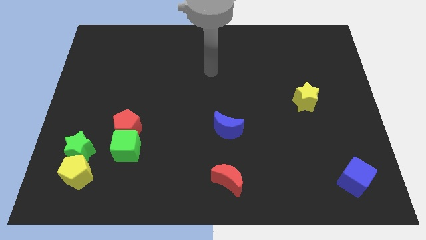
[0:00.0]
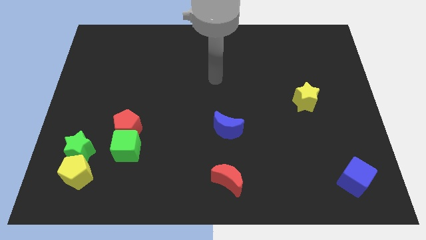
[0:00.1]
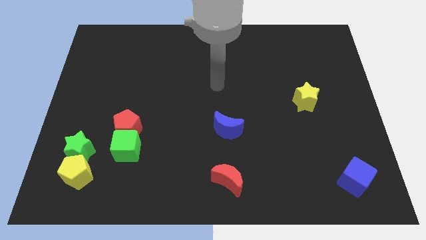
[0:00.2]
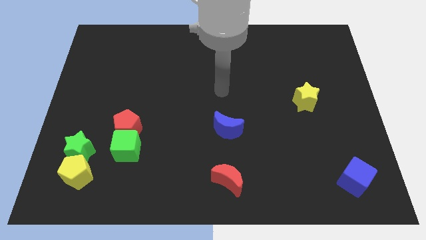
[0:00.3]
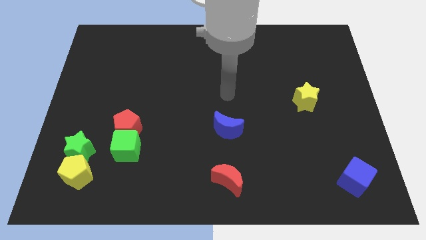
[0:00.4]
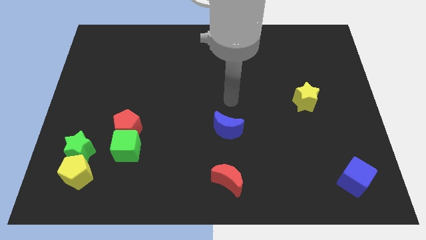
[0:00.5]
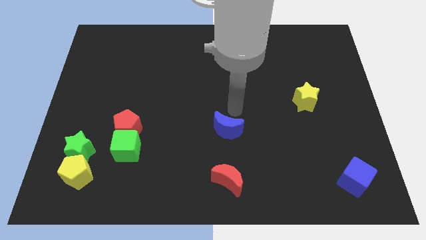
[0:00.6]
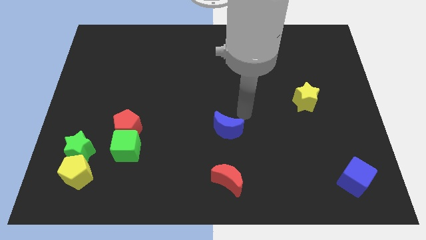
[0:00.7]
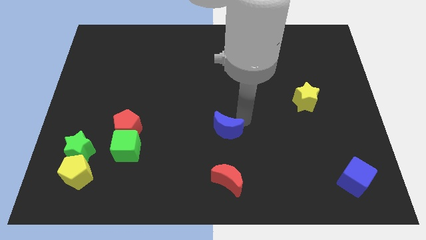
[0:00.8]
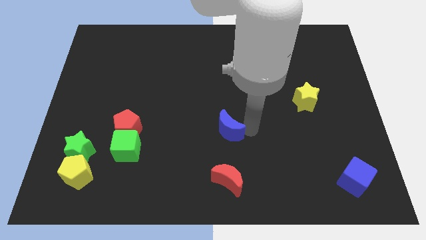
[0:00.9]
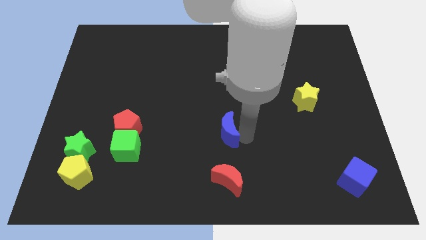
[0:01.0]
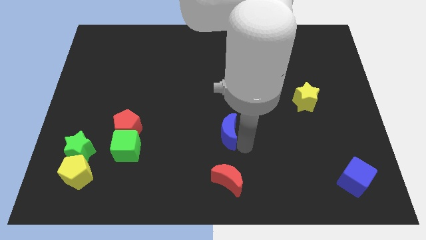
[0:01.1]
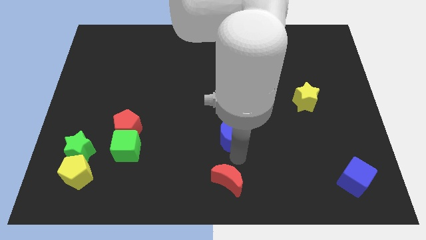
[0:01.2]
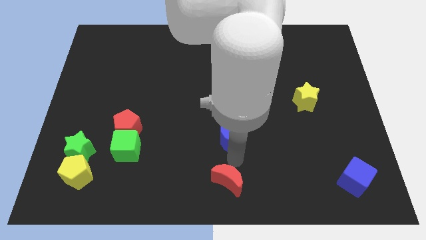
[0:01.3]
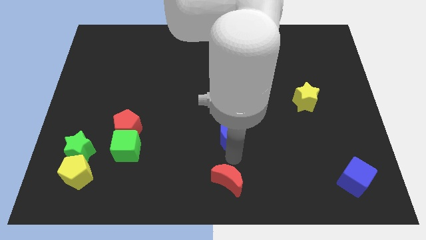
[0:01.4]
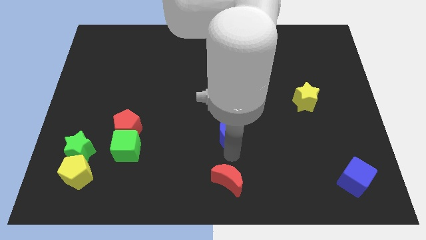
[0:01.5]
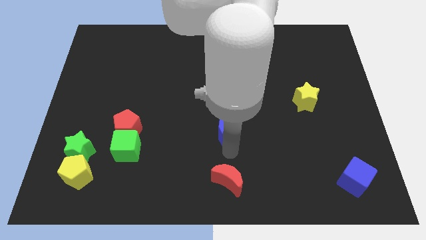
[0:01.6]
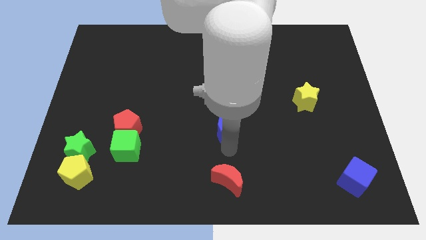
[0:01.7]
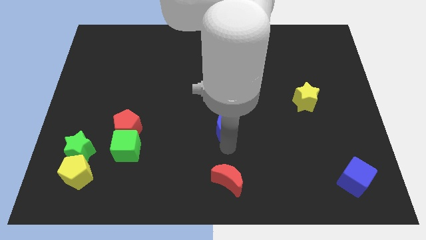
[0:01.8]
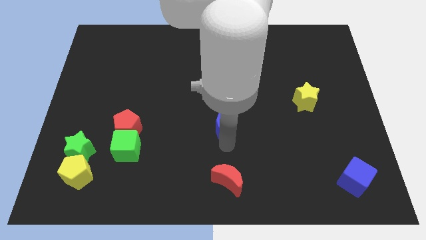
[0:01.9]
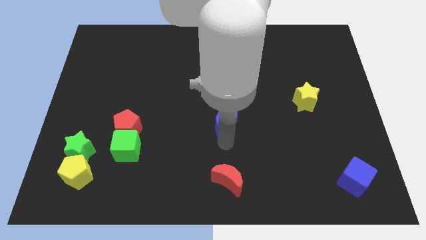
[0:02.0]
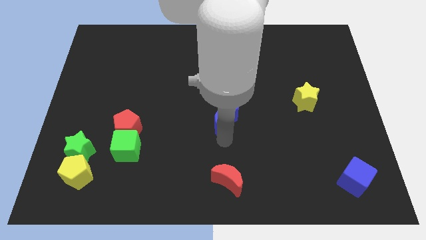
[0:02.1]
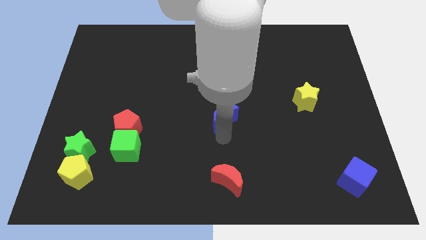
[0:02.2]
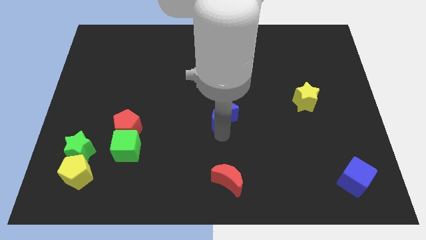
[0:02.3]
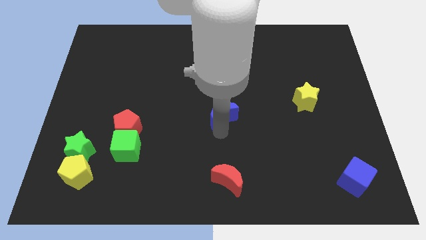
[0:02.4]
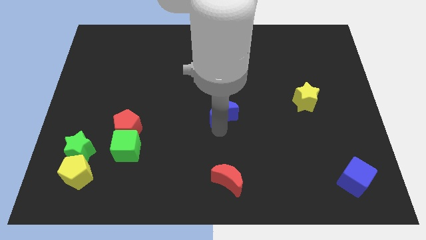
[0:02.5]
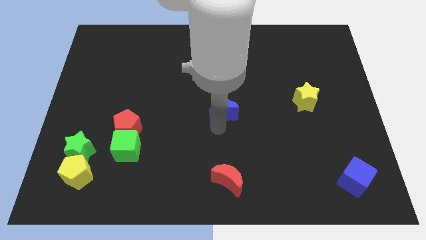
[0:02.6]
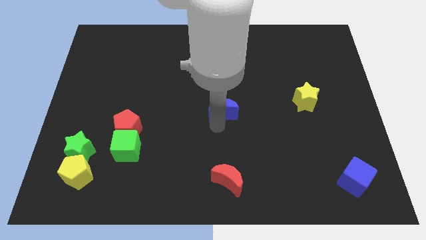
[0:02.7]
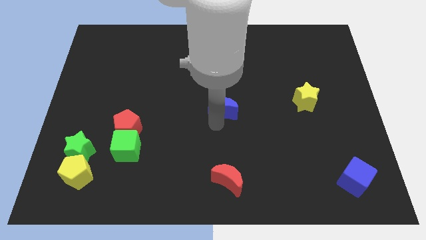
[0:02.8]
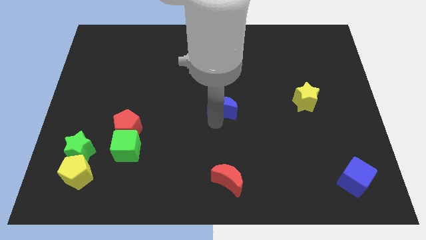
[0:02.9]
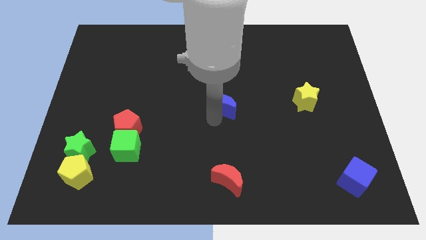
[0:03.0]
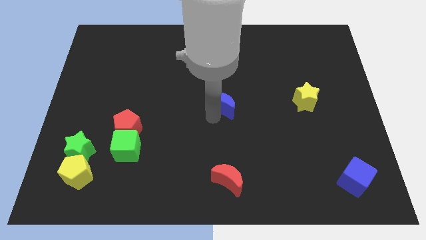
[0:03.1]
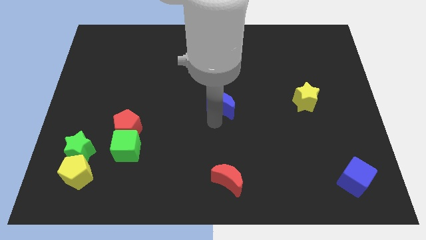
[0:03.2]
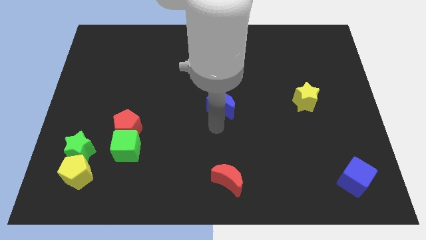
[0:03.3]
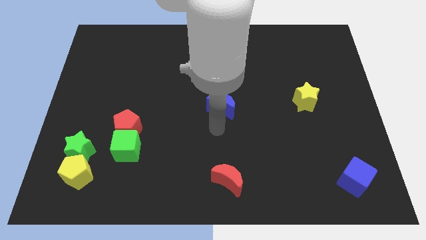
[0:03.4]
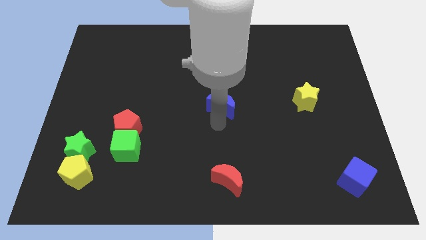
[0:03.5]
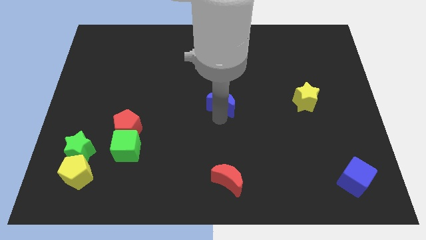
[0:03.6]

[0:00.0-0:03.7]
move the blue moon somewhat up

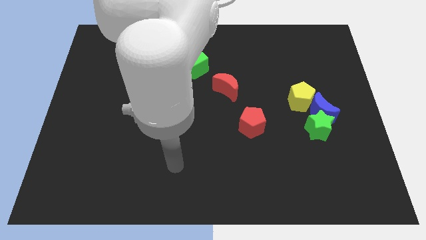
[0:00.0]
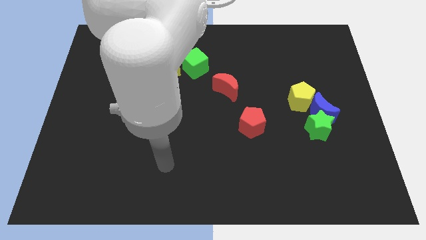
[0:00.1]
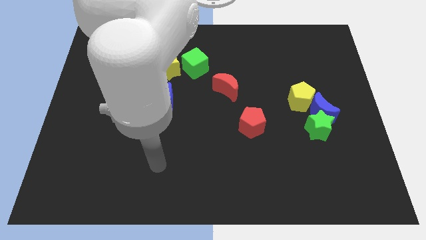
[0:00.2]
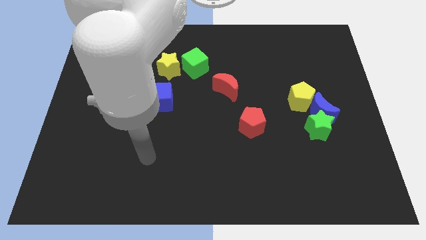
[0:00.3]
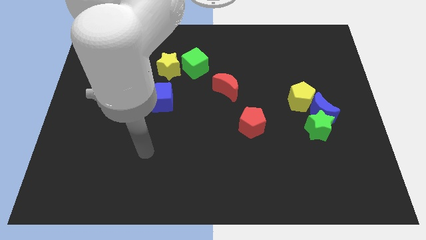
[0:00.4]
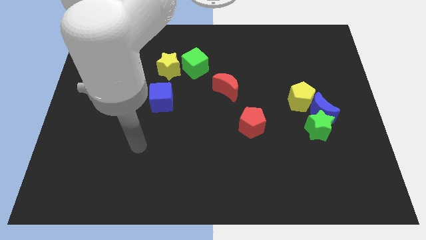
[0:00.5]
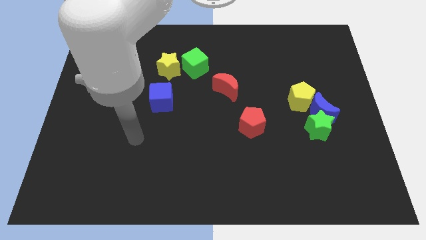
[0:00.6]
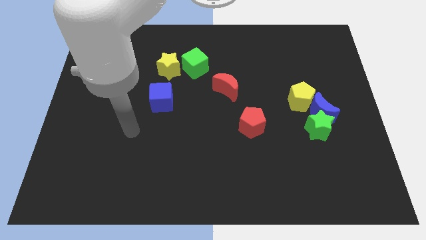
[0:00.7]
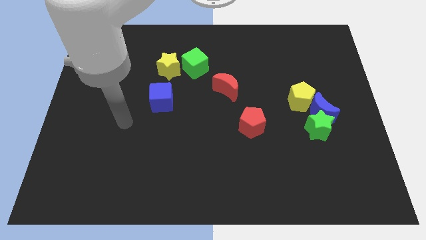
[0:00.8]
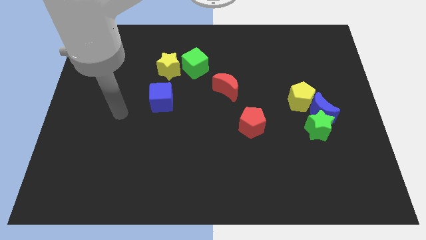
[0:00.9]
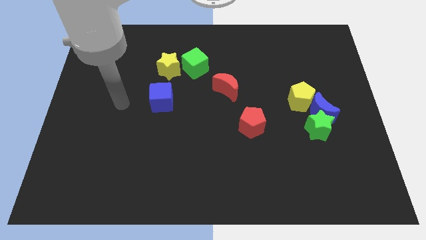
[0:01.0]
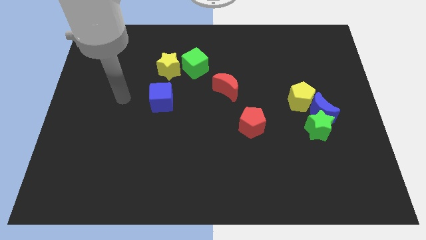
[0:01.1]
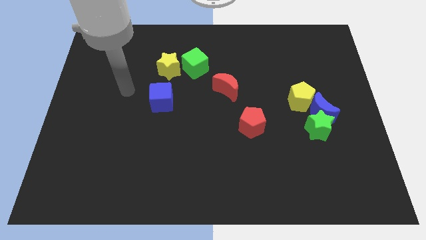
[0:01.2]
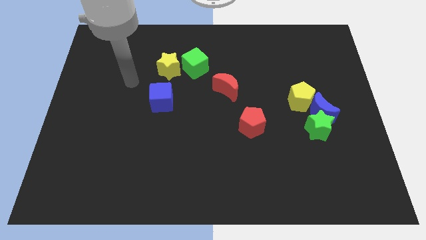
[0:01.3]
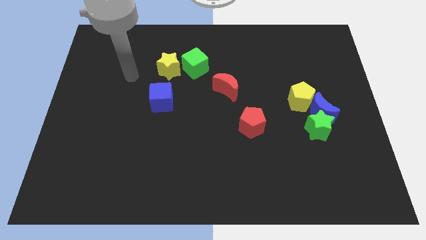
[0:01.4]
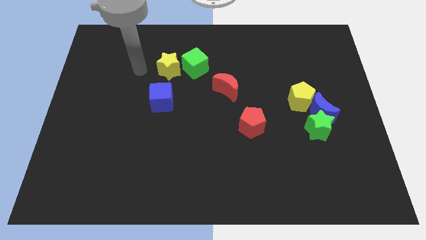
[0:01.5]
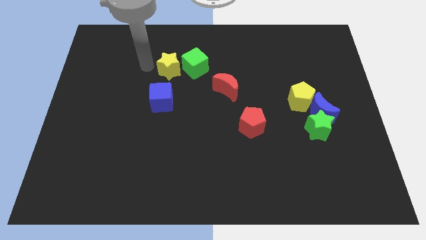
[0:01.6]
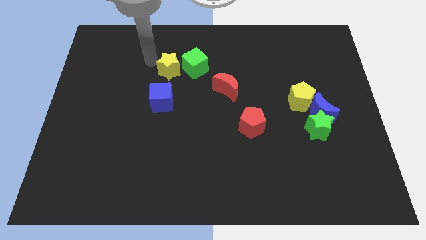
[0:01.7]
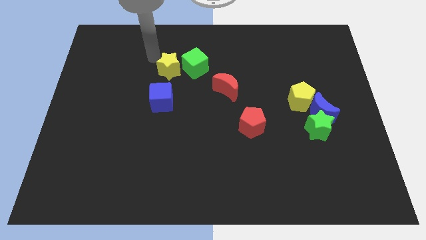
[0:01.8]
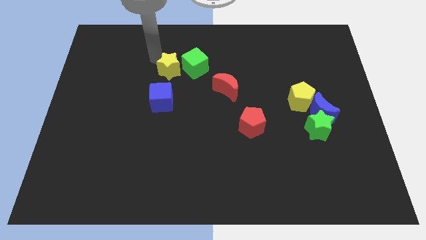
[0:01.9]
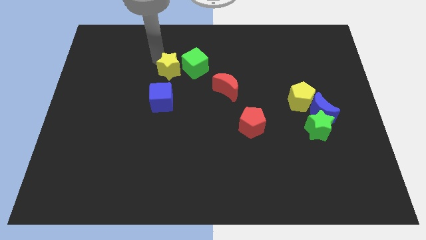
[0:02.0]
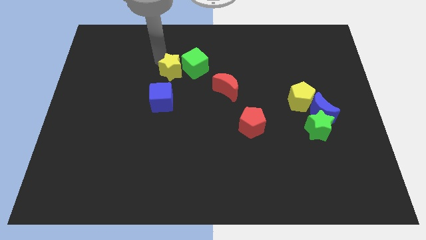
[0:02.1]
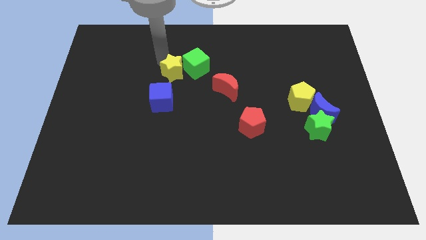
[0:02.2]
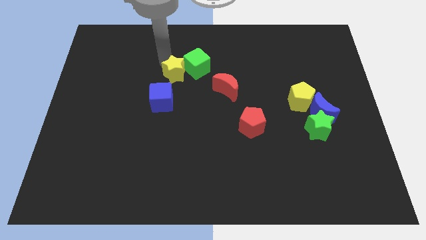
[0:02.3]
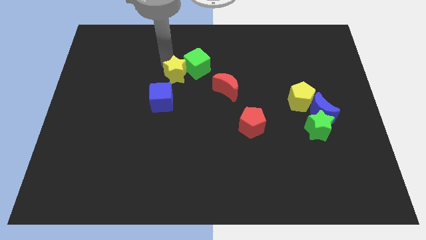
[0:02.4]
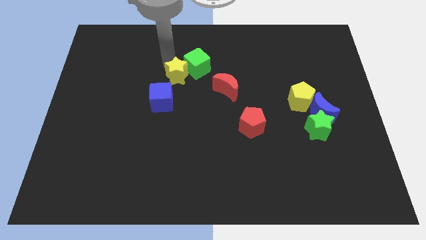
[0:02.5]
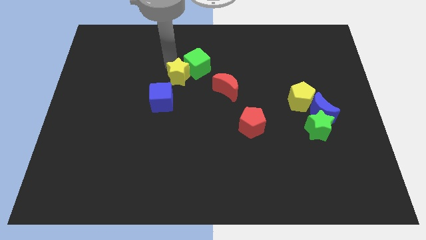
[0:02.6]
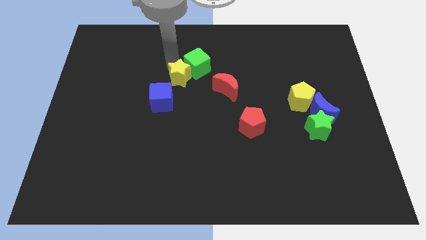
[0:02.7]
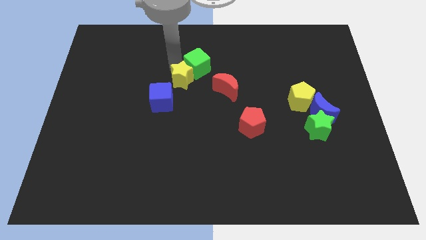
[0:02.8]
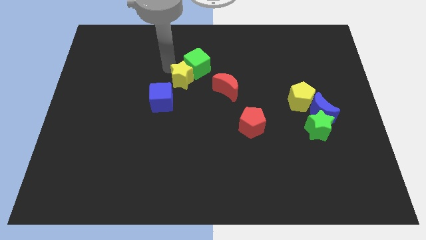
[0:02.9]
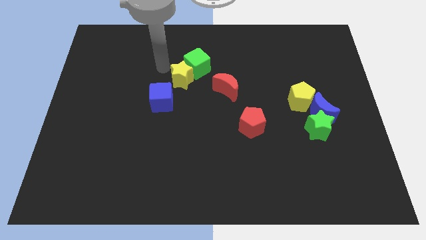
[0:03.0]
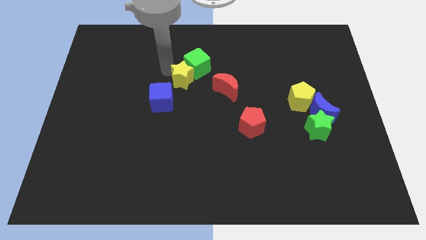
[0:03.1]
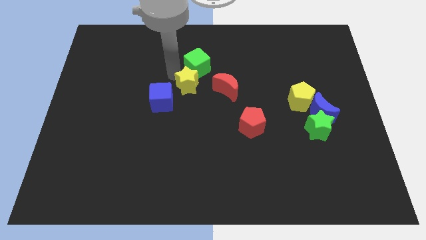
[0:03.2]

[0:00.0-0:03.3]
slightly push the yellow star diagonally downwards and right

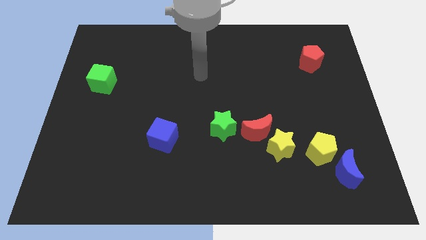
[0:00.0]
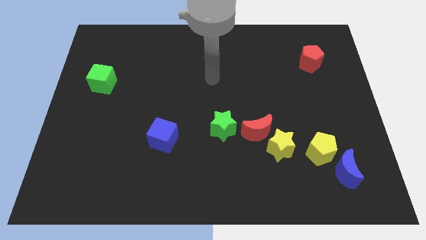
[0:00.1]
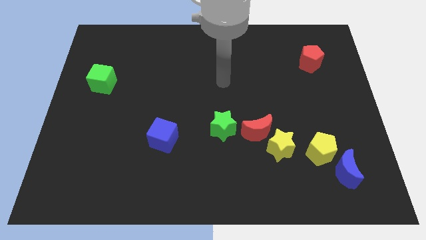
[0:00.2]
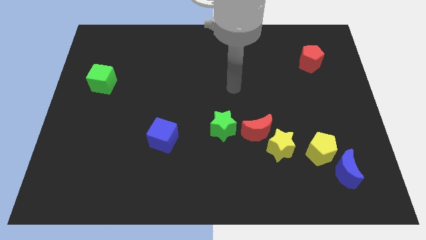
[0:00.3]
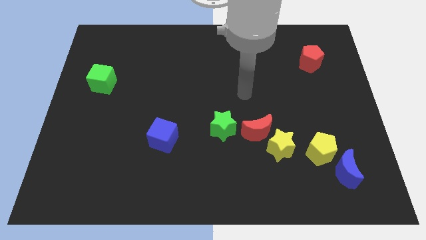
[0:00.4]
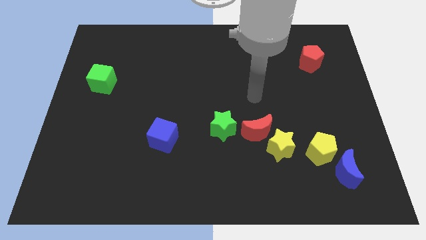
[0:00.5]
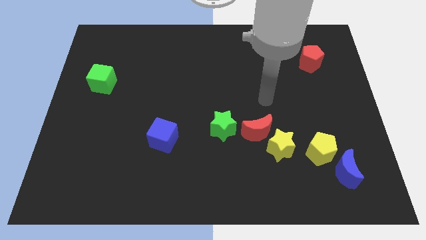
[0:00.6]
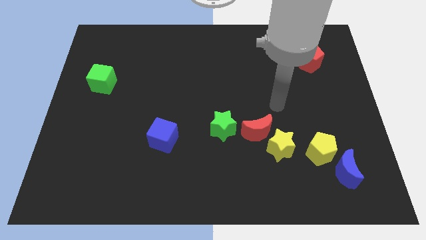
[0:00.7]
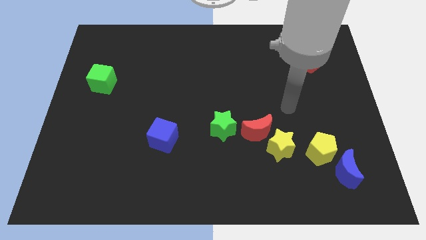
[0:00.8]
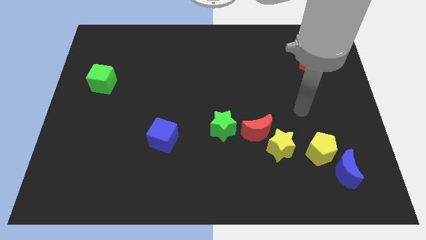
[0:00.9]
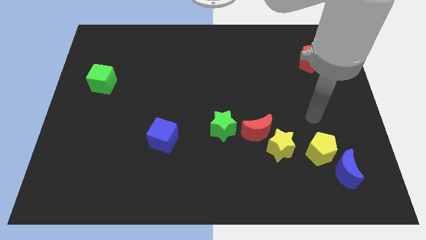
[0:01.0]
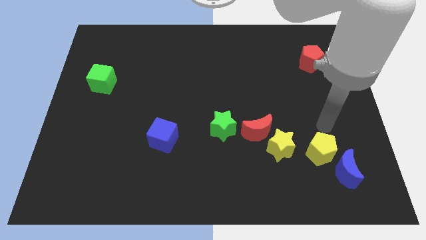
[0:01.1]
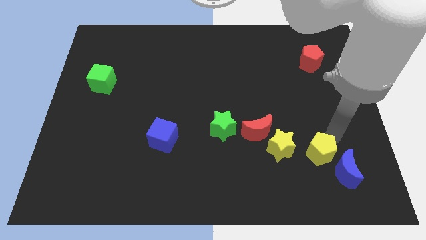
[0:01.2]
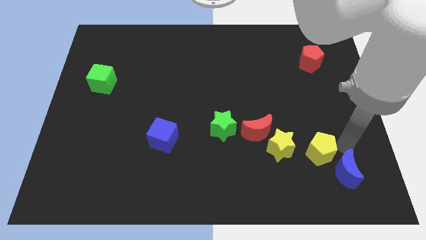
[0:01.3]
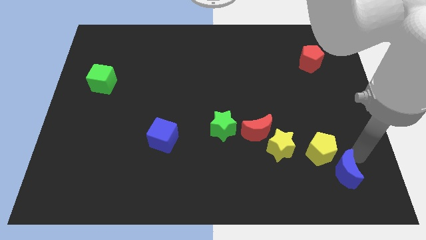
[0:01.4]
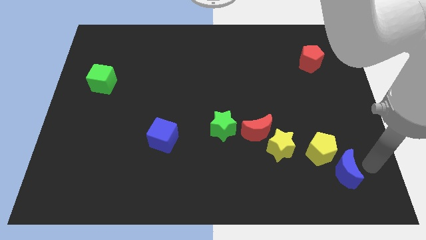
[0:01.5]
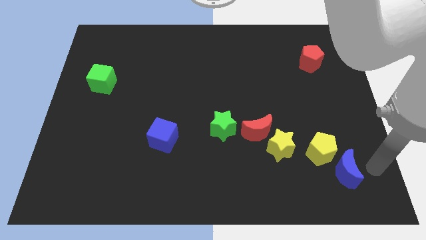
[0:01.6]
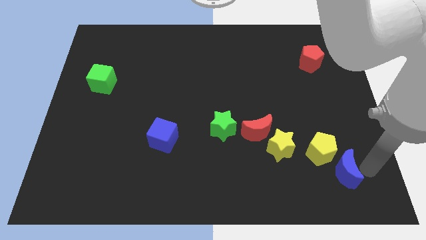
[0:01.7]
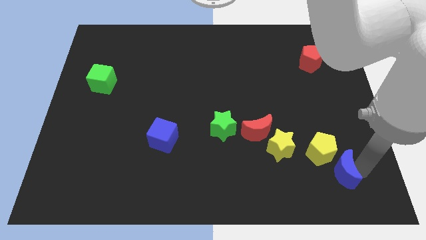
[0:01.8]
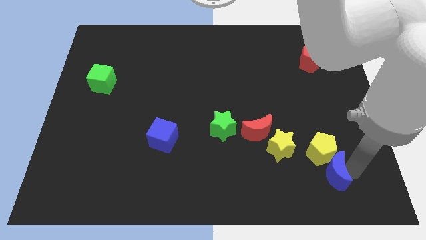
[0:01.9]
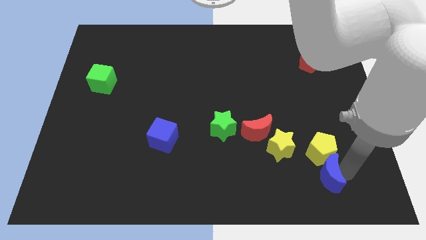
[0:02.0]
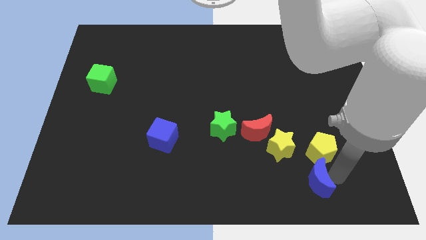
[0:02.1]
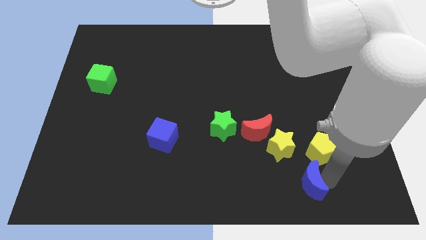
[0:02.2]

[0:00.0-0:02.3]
move the blue moon left a little bit
